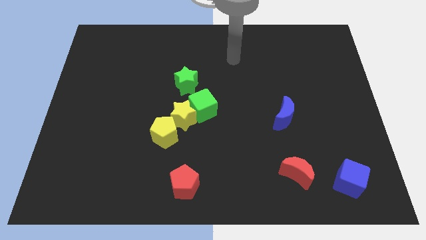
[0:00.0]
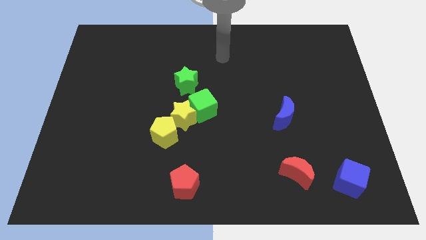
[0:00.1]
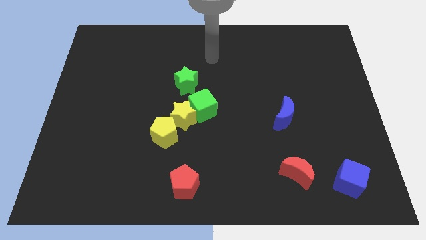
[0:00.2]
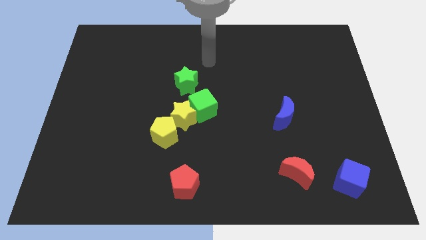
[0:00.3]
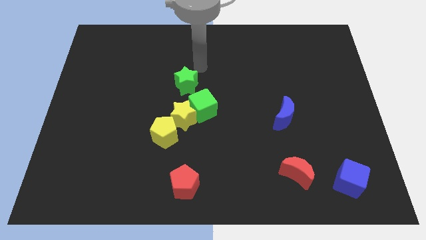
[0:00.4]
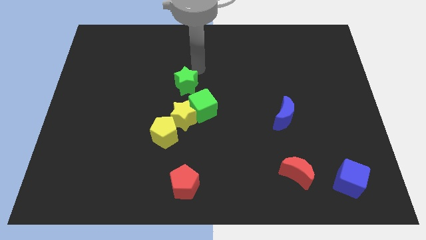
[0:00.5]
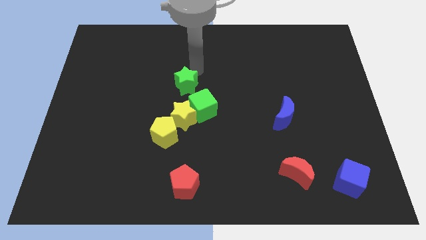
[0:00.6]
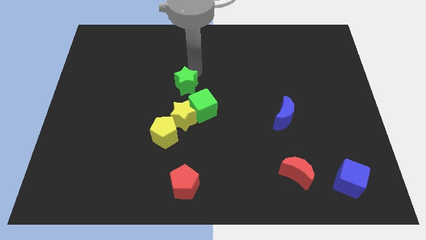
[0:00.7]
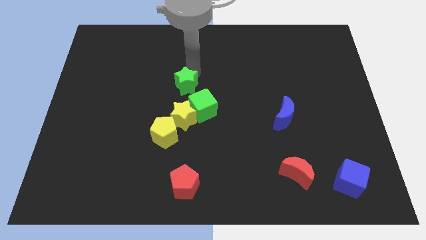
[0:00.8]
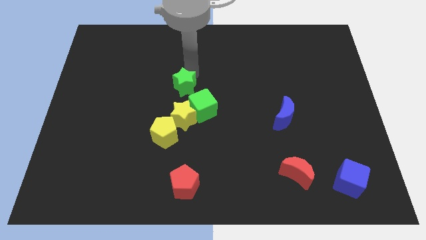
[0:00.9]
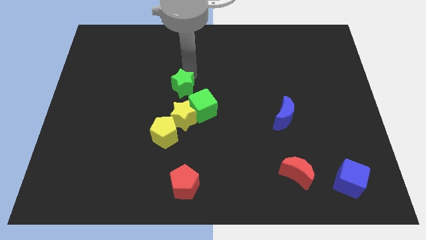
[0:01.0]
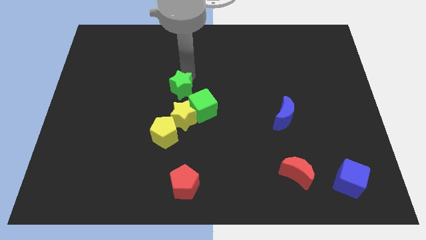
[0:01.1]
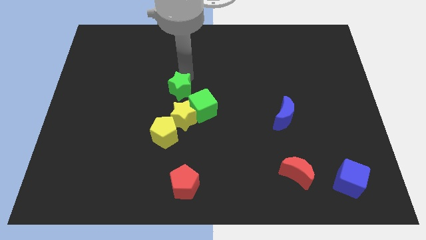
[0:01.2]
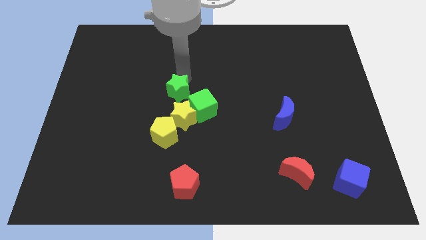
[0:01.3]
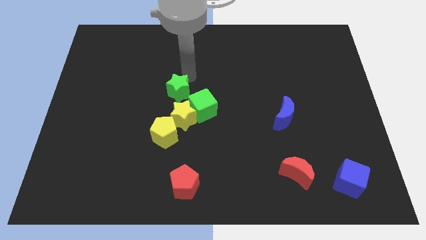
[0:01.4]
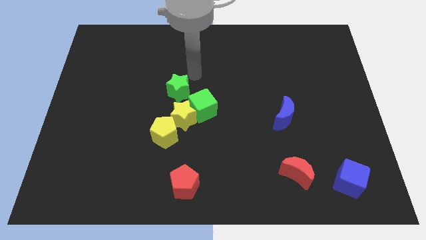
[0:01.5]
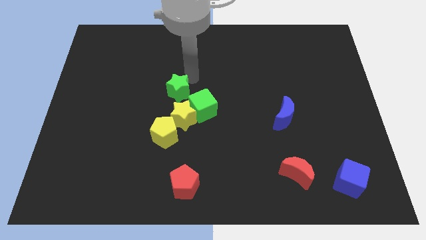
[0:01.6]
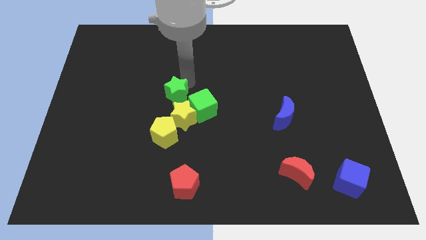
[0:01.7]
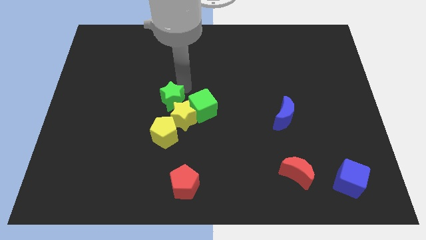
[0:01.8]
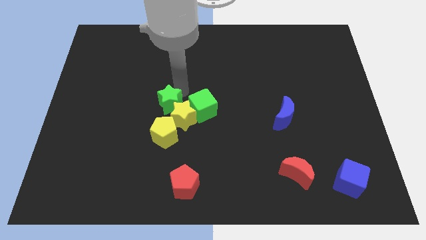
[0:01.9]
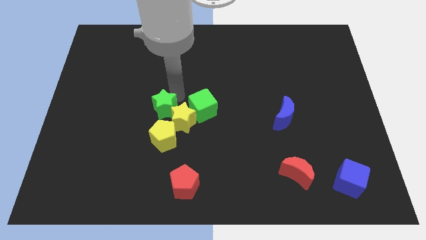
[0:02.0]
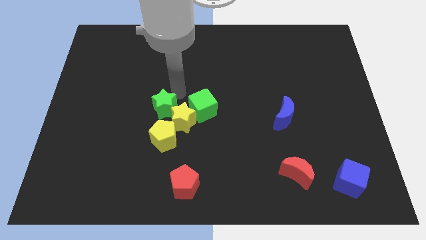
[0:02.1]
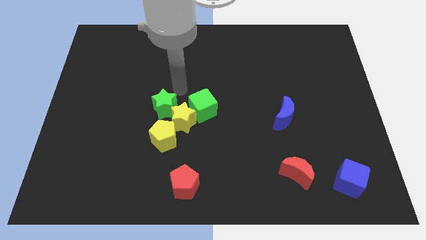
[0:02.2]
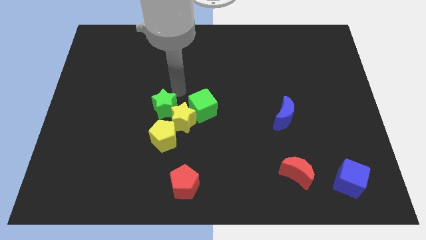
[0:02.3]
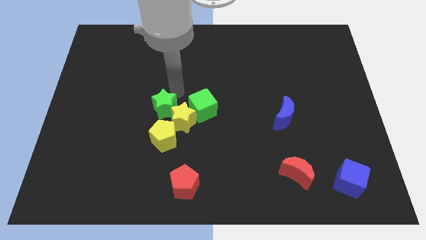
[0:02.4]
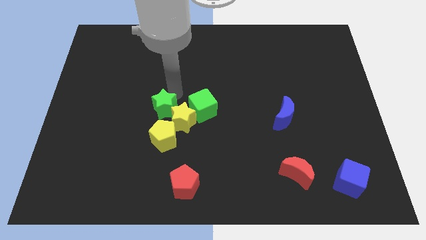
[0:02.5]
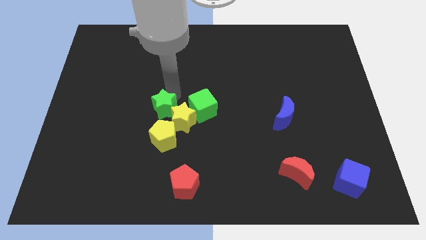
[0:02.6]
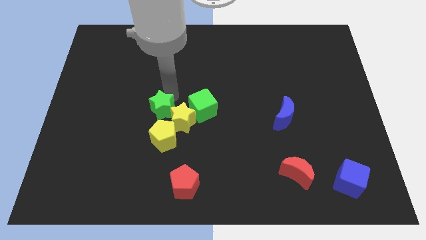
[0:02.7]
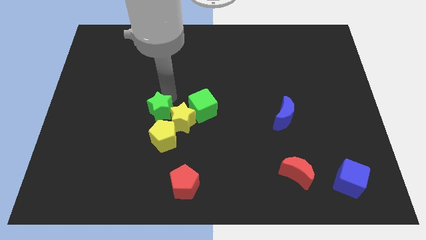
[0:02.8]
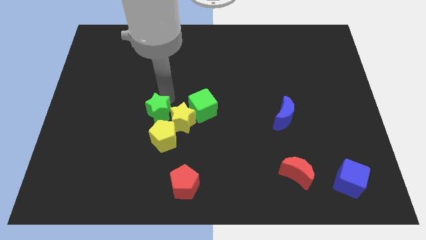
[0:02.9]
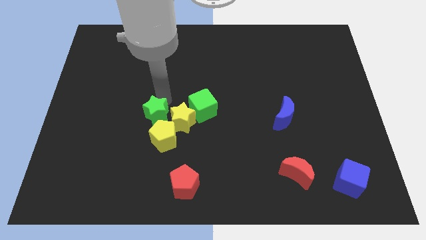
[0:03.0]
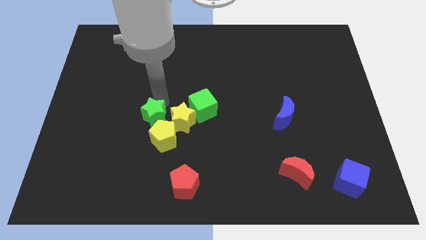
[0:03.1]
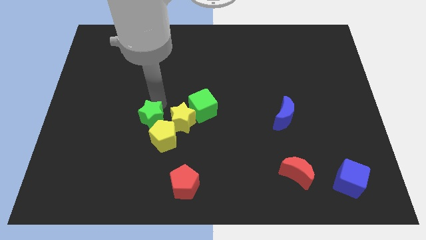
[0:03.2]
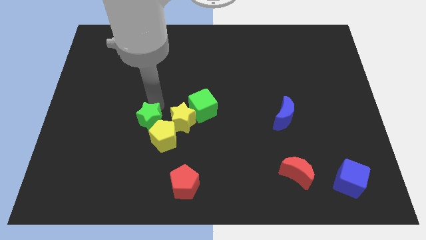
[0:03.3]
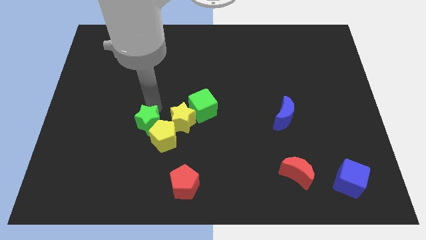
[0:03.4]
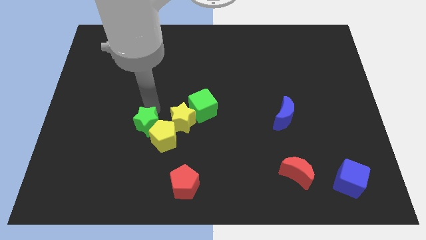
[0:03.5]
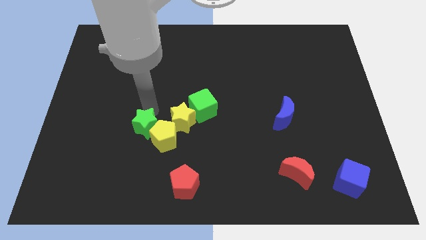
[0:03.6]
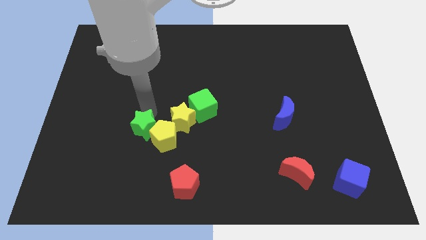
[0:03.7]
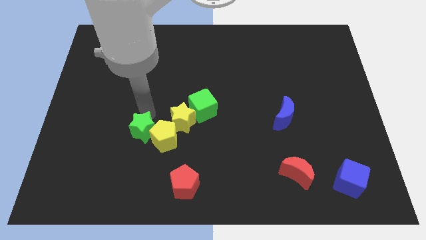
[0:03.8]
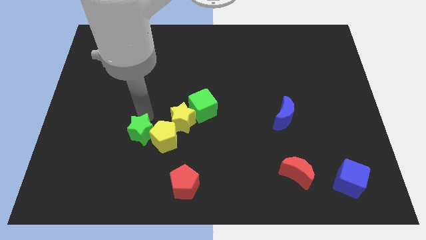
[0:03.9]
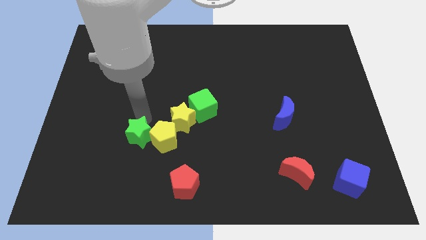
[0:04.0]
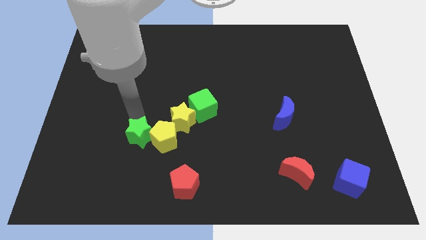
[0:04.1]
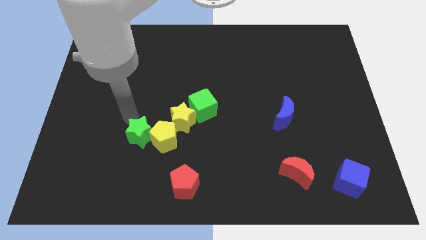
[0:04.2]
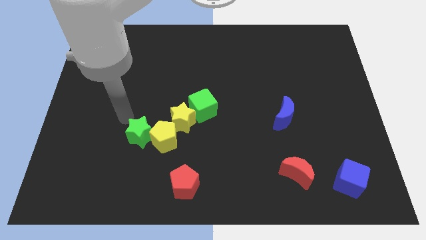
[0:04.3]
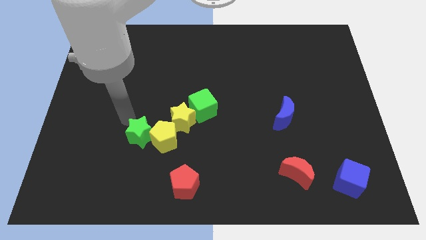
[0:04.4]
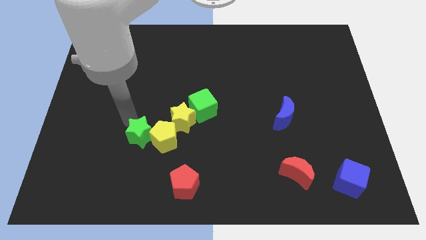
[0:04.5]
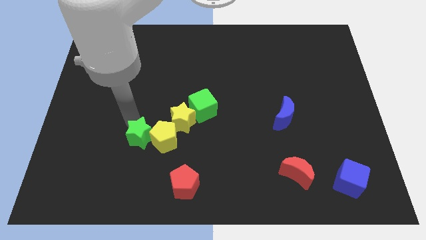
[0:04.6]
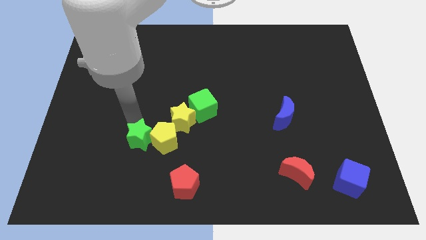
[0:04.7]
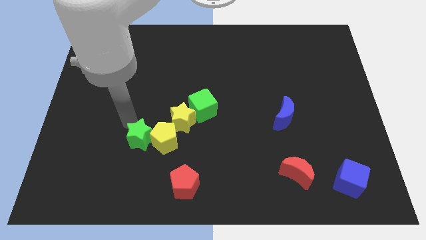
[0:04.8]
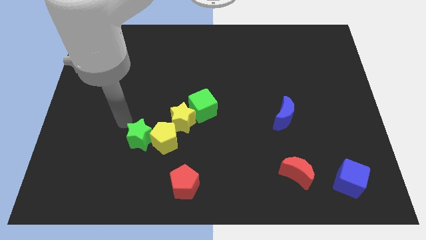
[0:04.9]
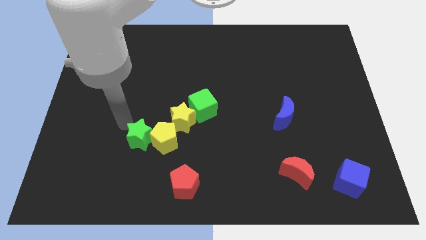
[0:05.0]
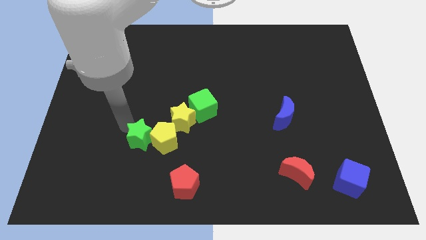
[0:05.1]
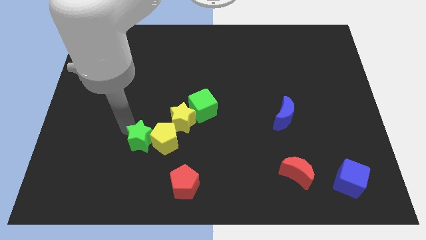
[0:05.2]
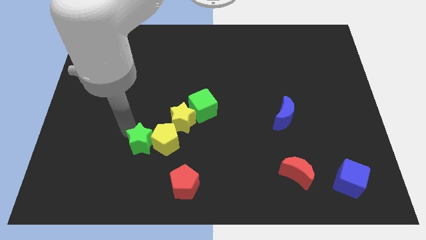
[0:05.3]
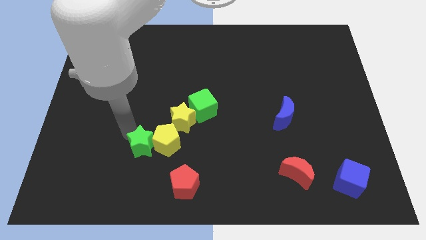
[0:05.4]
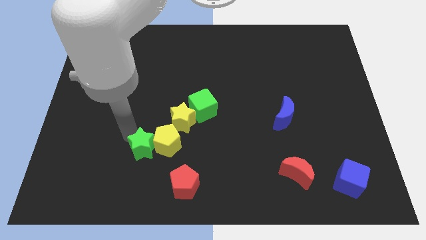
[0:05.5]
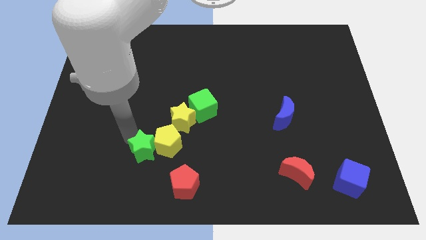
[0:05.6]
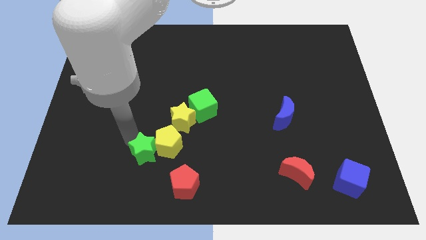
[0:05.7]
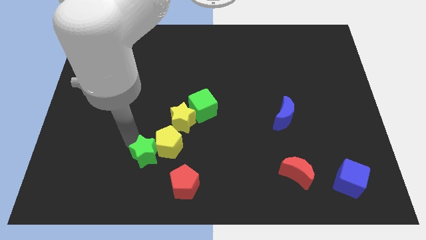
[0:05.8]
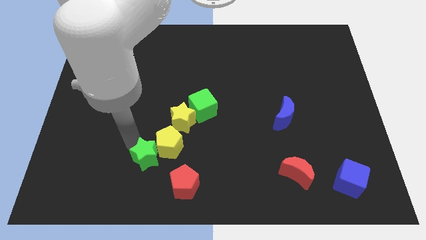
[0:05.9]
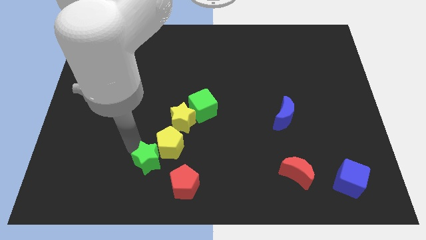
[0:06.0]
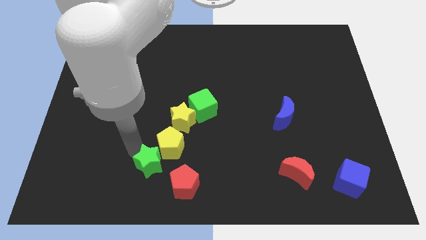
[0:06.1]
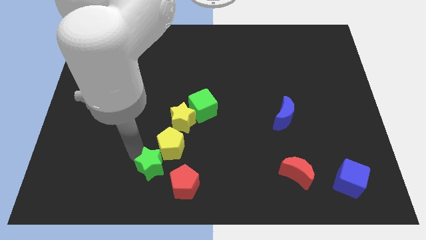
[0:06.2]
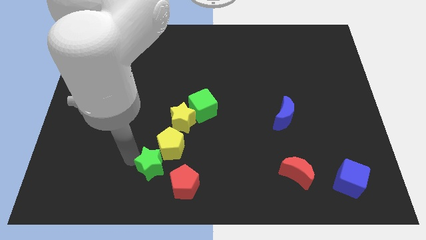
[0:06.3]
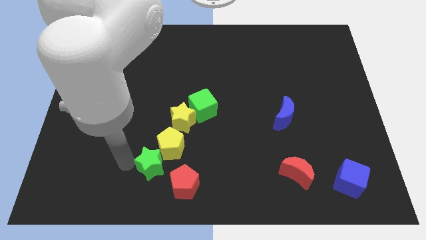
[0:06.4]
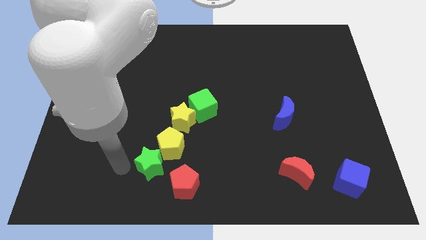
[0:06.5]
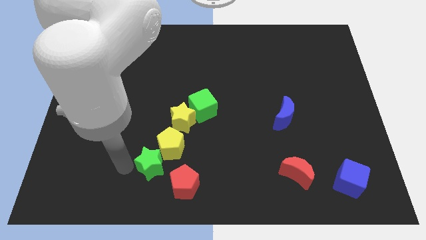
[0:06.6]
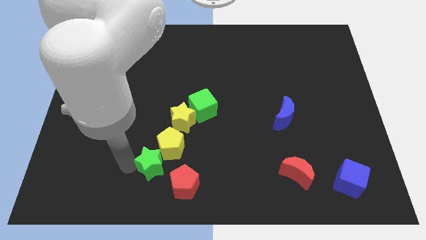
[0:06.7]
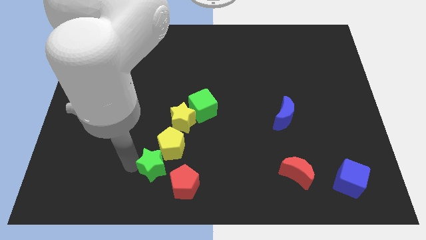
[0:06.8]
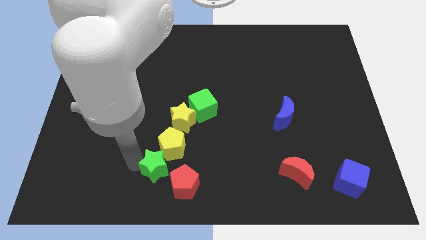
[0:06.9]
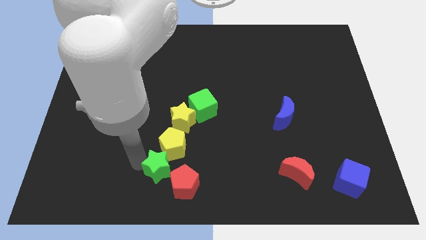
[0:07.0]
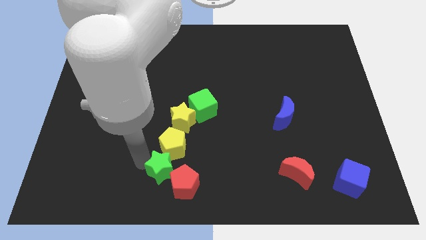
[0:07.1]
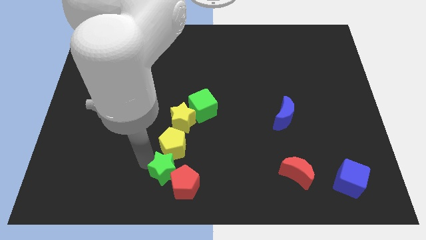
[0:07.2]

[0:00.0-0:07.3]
move the green star to the bottom
